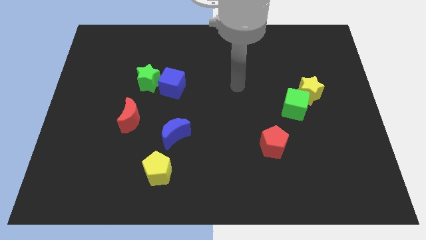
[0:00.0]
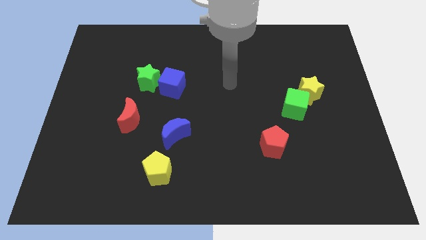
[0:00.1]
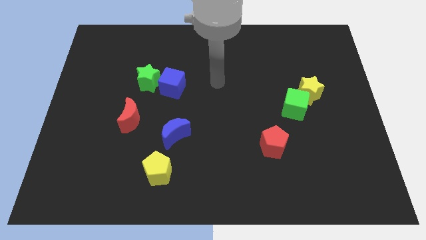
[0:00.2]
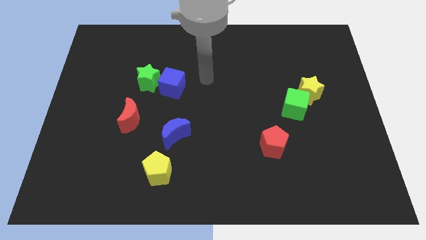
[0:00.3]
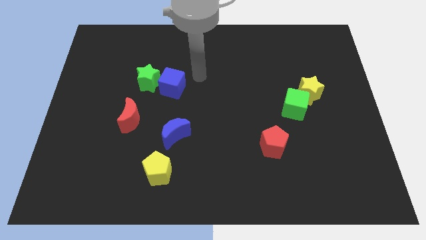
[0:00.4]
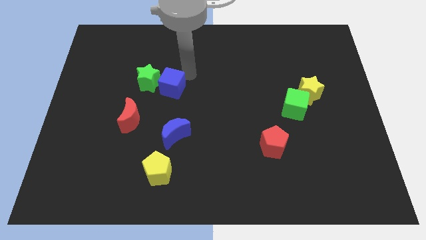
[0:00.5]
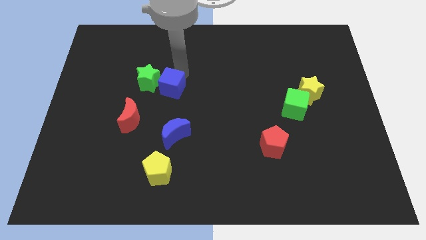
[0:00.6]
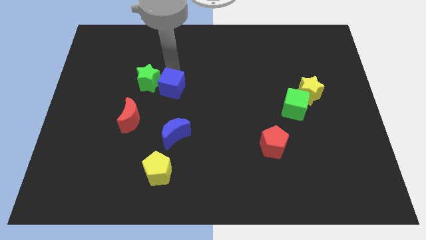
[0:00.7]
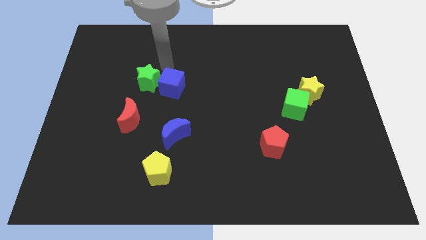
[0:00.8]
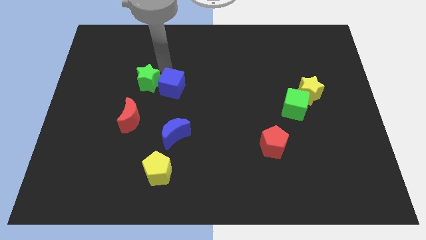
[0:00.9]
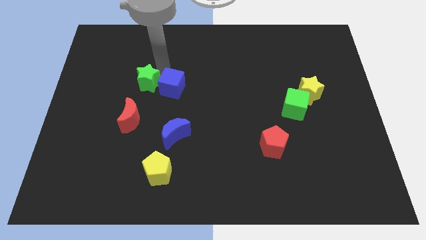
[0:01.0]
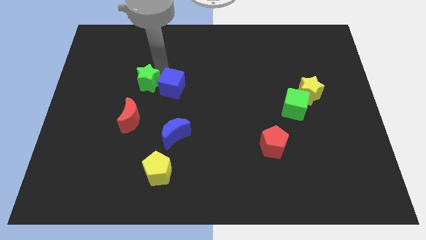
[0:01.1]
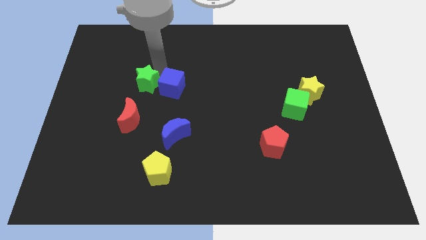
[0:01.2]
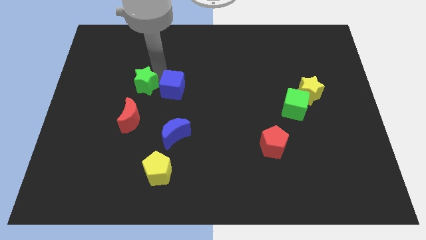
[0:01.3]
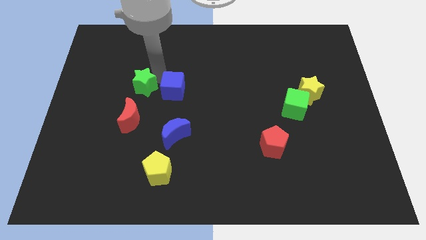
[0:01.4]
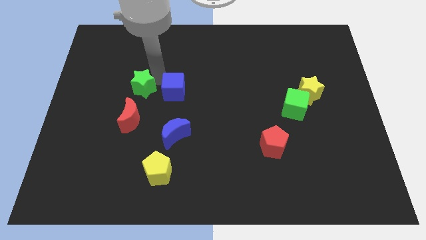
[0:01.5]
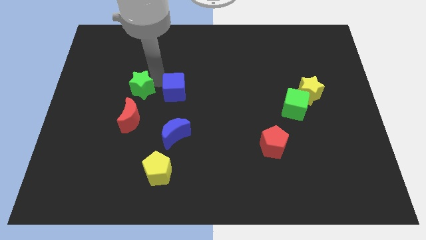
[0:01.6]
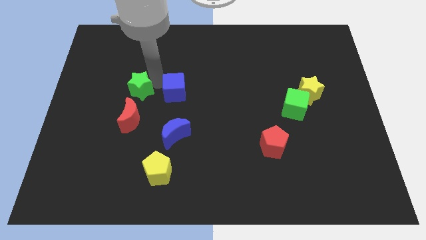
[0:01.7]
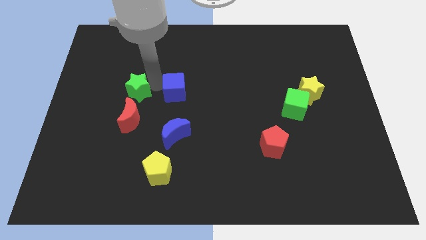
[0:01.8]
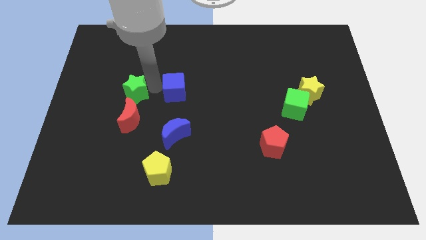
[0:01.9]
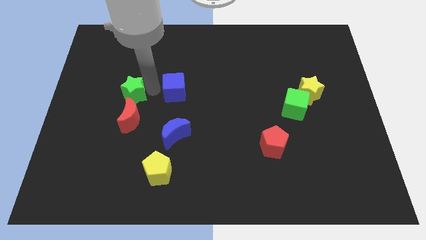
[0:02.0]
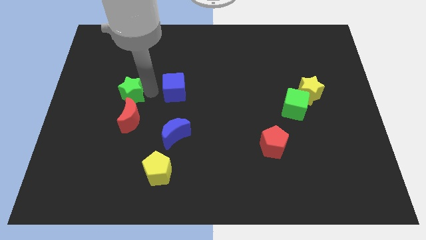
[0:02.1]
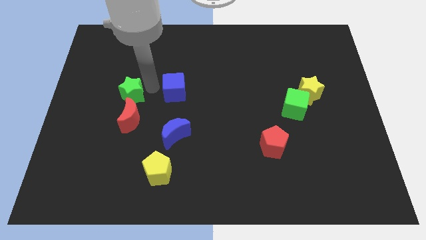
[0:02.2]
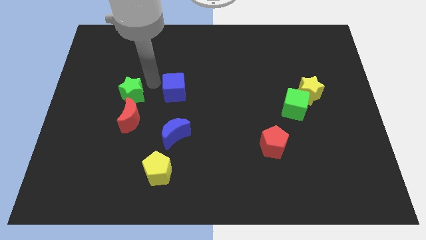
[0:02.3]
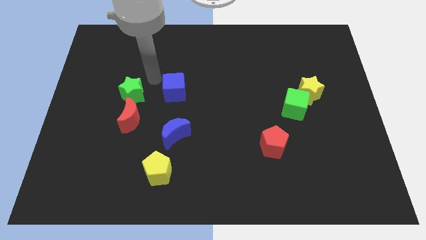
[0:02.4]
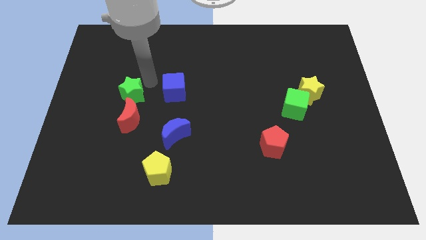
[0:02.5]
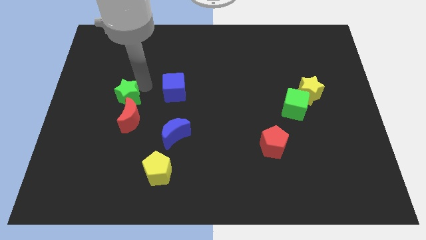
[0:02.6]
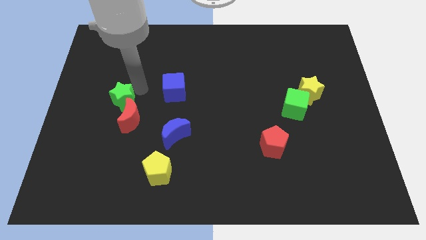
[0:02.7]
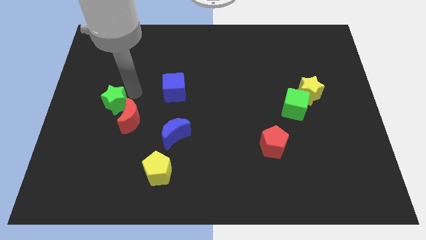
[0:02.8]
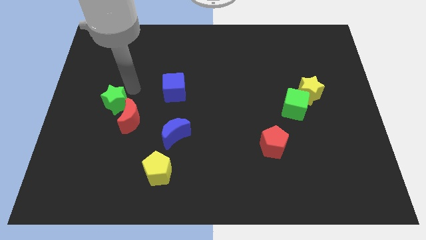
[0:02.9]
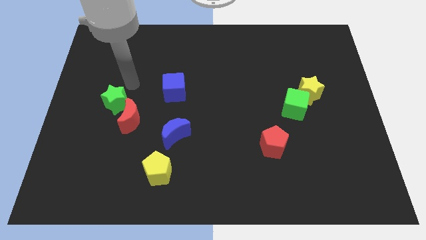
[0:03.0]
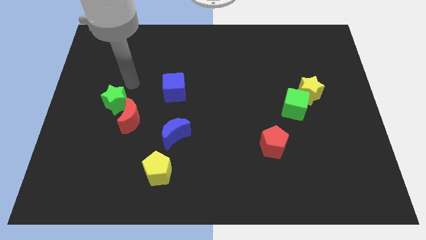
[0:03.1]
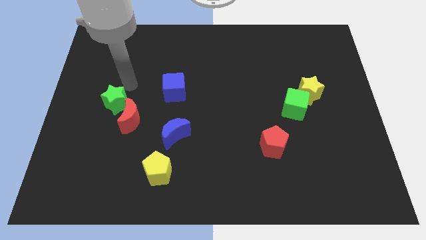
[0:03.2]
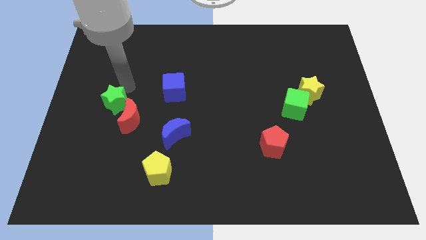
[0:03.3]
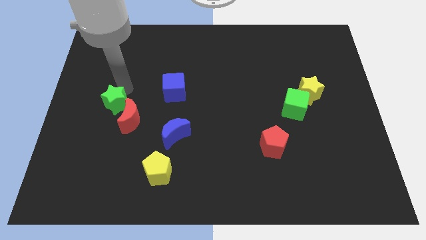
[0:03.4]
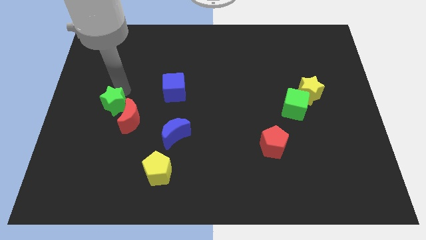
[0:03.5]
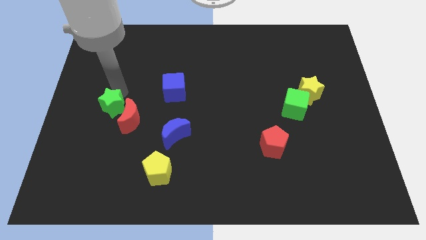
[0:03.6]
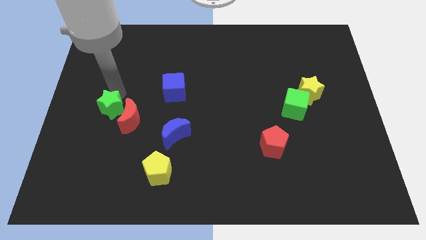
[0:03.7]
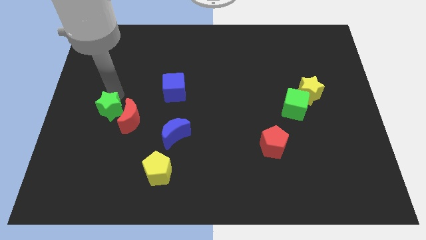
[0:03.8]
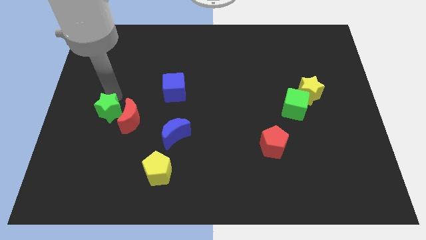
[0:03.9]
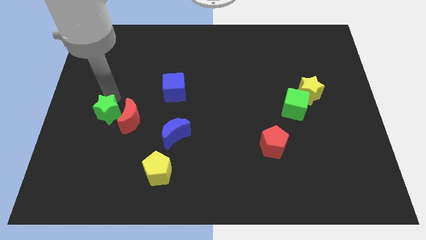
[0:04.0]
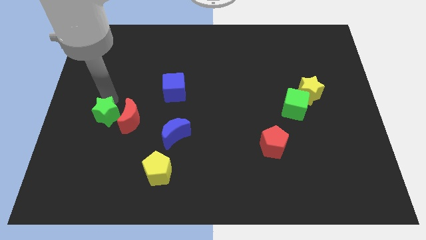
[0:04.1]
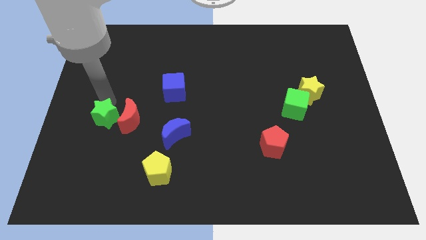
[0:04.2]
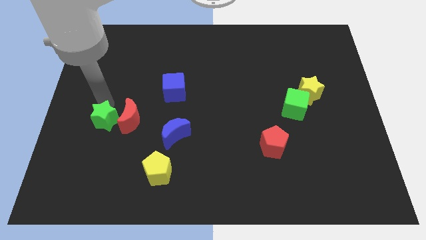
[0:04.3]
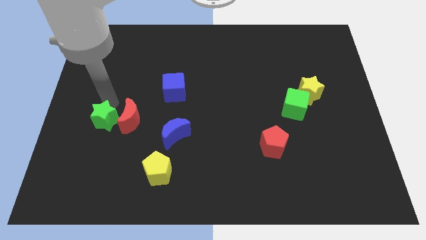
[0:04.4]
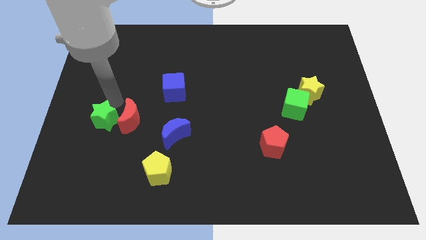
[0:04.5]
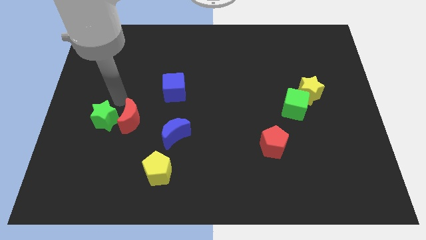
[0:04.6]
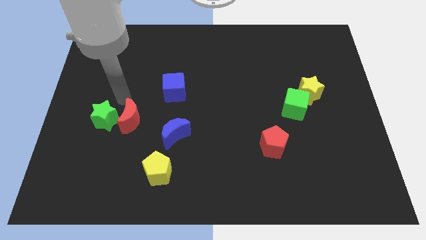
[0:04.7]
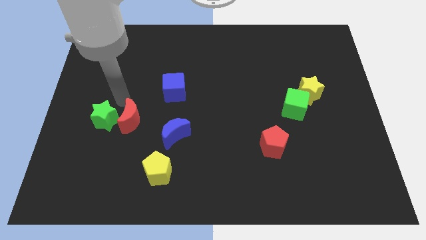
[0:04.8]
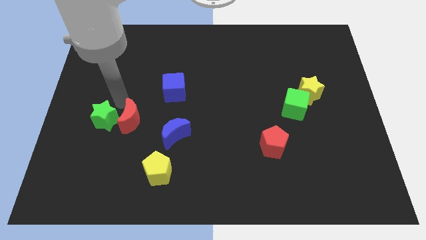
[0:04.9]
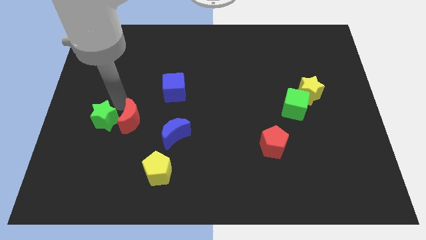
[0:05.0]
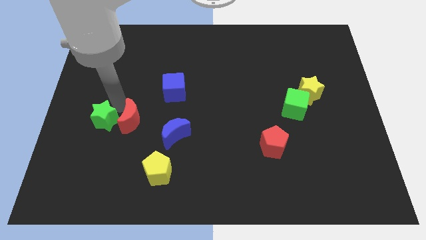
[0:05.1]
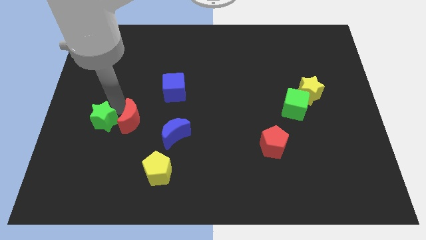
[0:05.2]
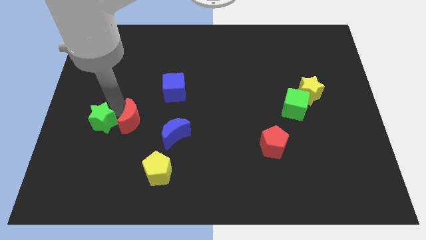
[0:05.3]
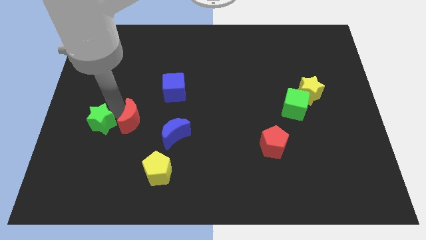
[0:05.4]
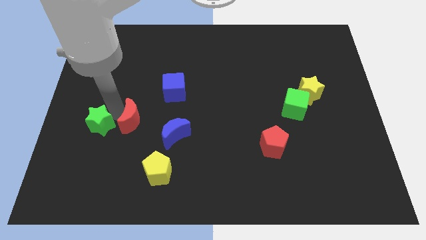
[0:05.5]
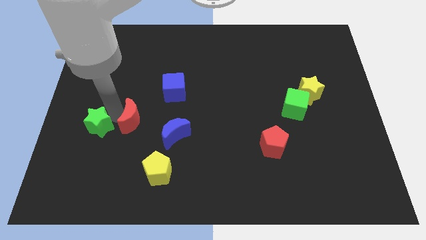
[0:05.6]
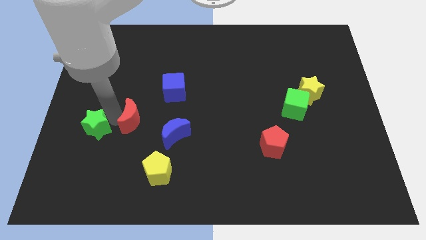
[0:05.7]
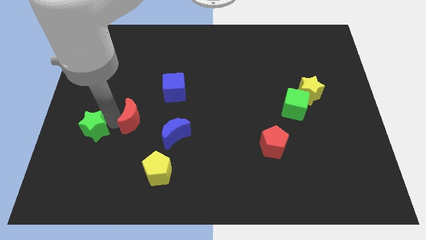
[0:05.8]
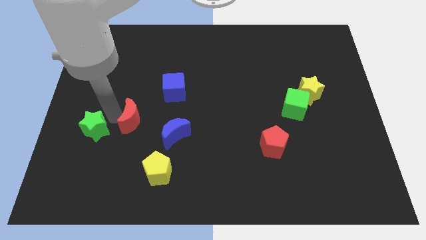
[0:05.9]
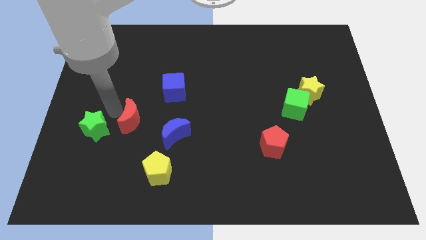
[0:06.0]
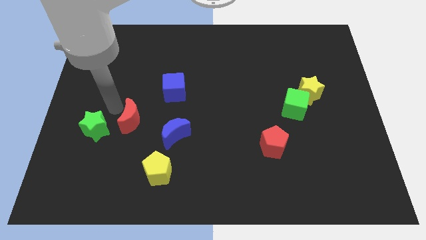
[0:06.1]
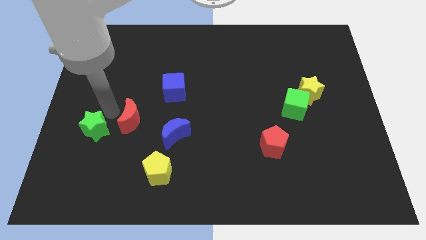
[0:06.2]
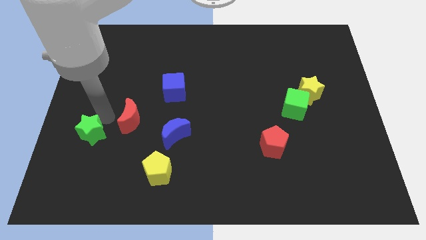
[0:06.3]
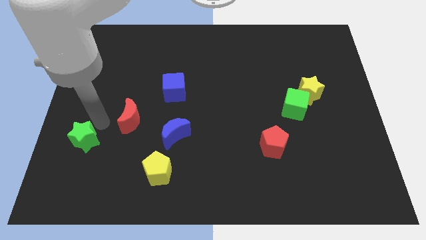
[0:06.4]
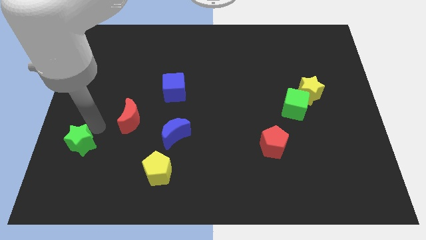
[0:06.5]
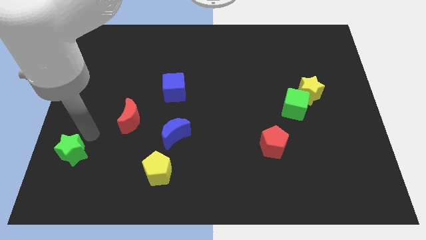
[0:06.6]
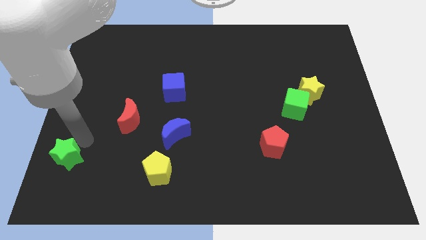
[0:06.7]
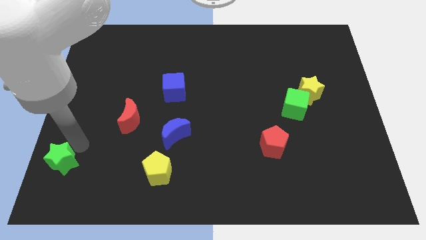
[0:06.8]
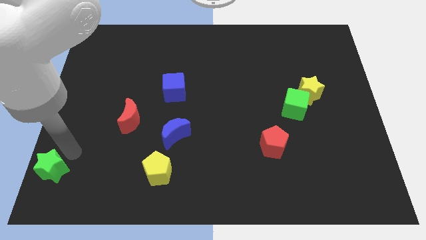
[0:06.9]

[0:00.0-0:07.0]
put the green star to the bottom left of the board
